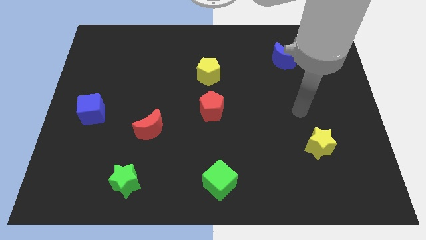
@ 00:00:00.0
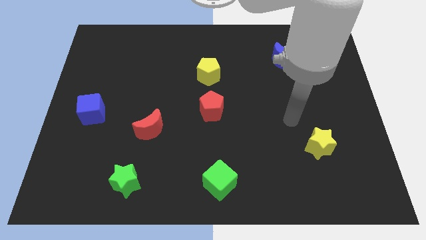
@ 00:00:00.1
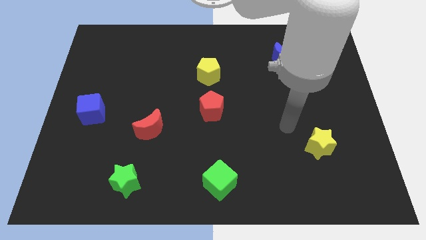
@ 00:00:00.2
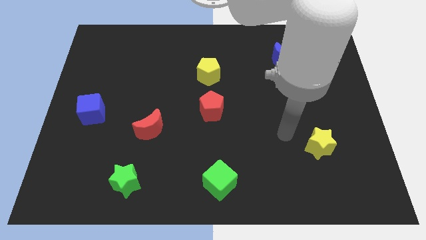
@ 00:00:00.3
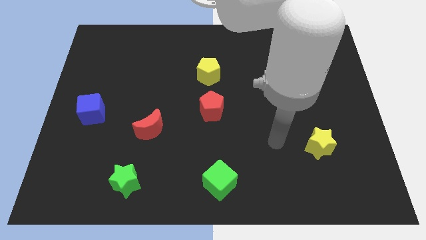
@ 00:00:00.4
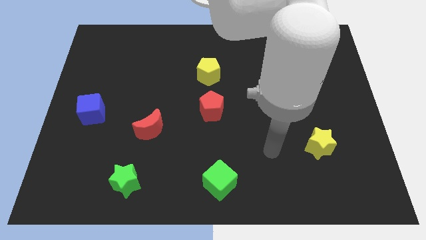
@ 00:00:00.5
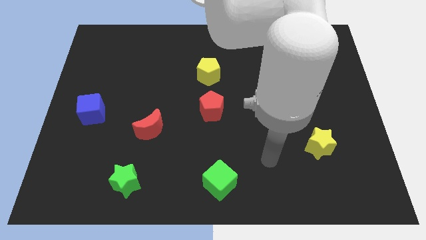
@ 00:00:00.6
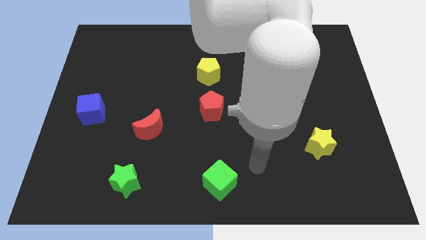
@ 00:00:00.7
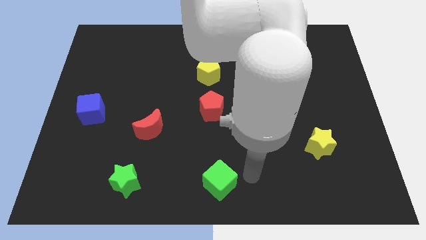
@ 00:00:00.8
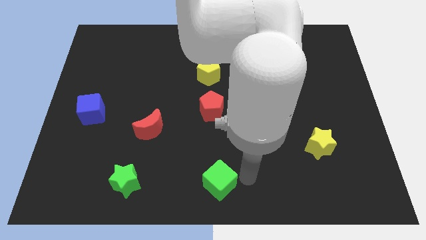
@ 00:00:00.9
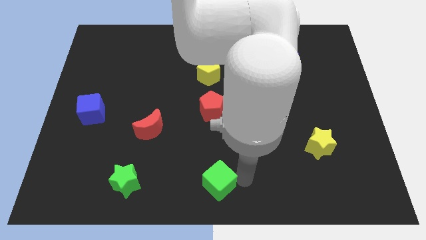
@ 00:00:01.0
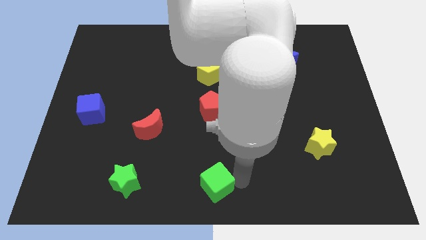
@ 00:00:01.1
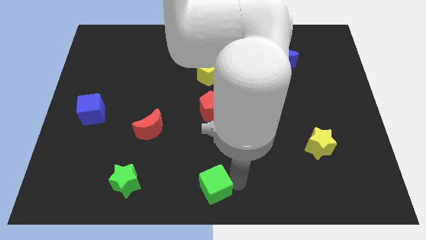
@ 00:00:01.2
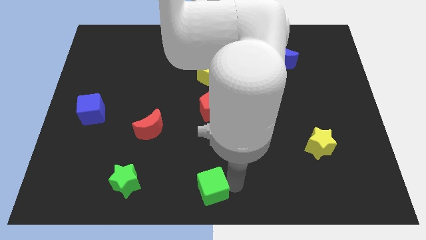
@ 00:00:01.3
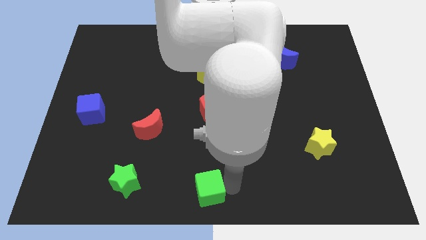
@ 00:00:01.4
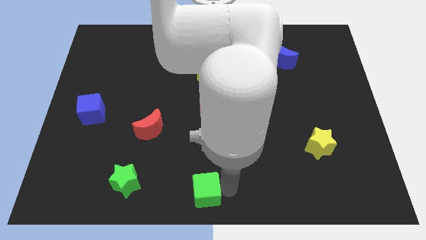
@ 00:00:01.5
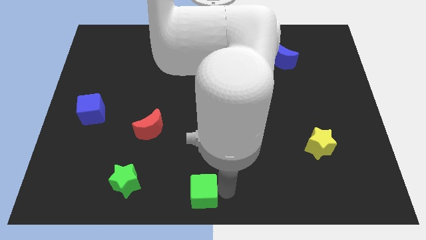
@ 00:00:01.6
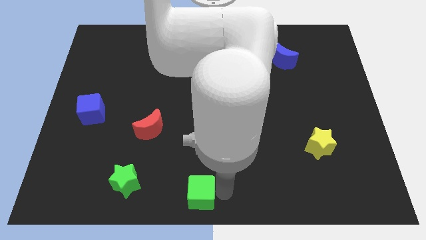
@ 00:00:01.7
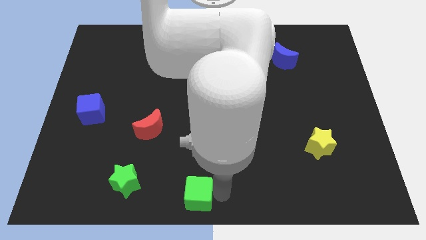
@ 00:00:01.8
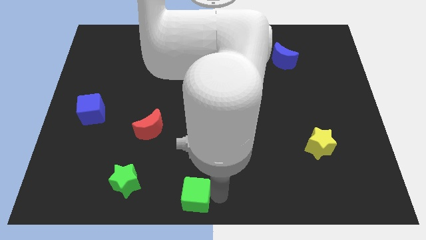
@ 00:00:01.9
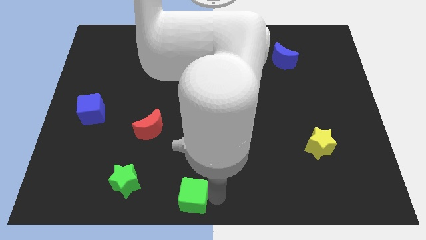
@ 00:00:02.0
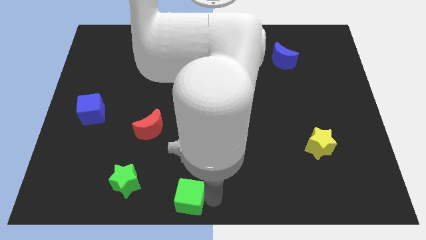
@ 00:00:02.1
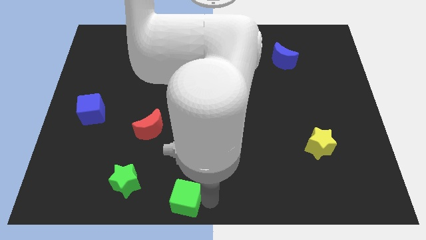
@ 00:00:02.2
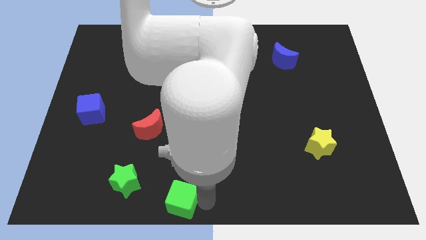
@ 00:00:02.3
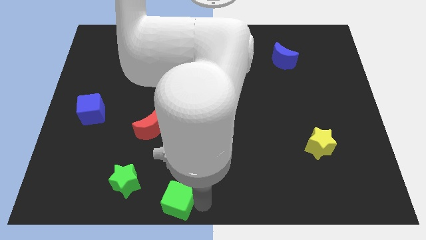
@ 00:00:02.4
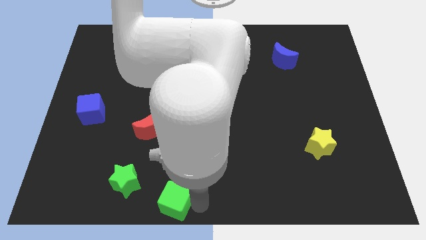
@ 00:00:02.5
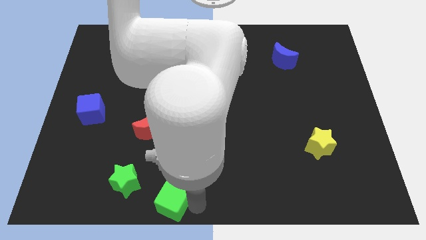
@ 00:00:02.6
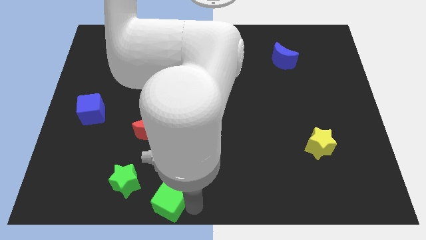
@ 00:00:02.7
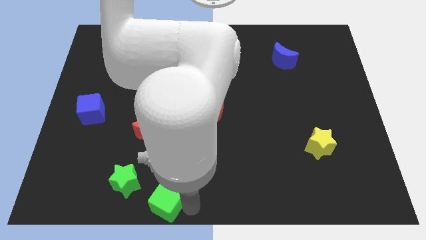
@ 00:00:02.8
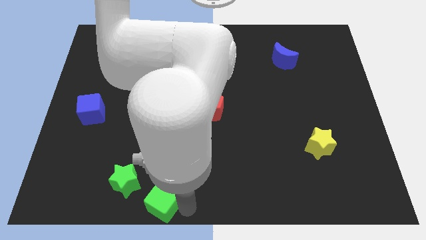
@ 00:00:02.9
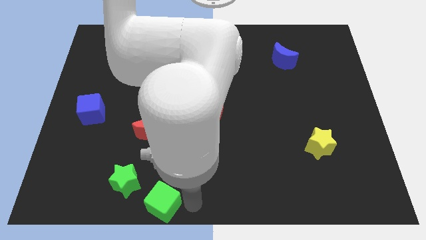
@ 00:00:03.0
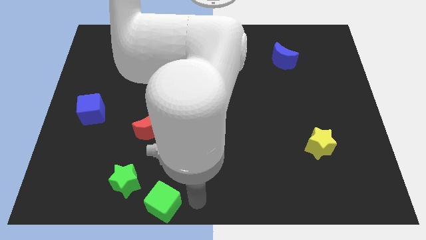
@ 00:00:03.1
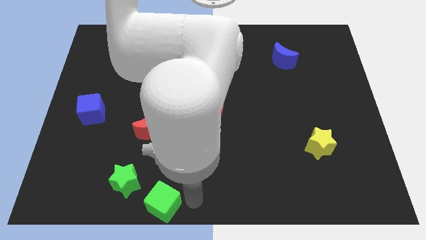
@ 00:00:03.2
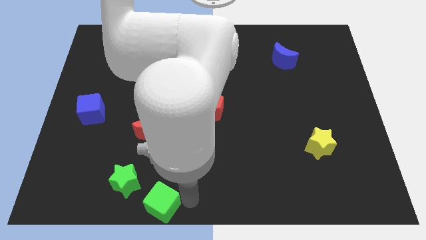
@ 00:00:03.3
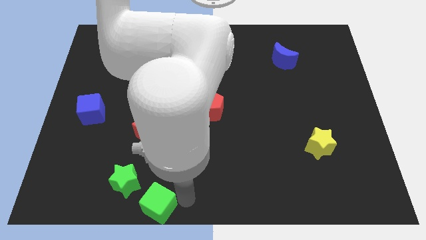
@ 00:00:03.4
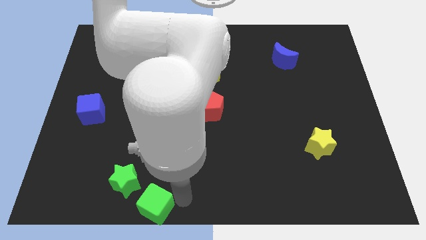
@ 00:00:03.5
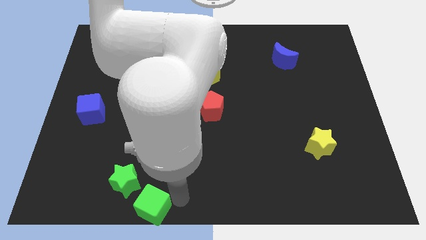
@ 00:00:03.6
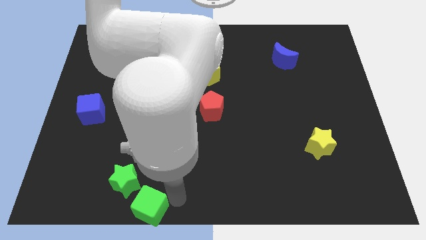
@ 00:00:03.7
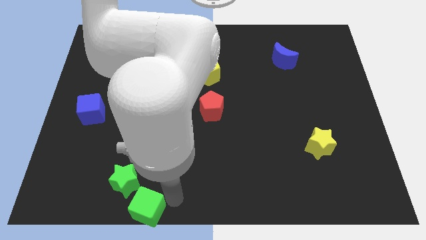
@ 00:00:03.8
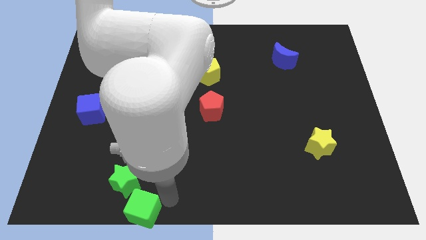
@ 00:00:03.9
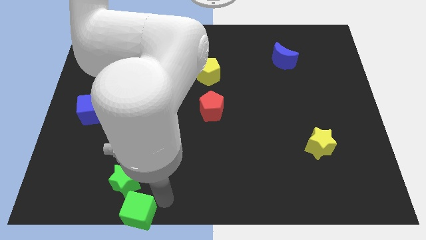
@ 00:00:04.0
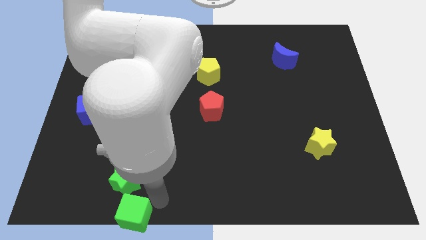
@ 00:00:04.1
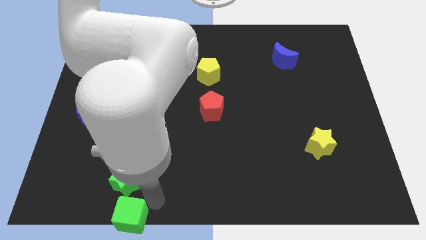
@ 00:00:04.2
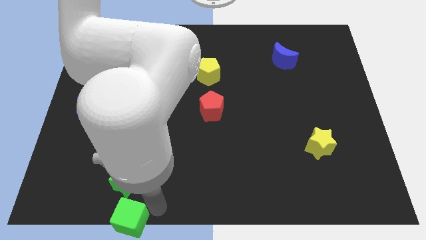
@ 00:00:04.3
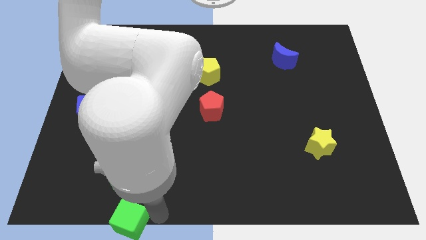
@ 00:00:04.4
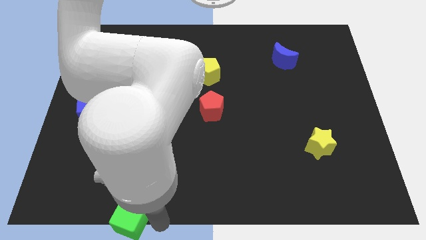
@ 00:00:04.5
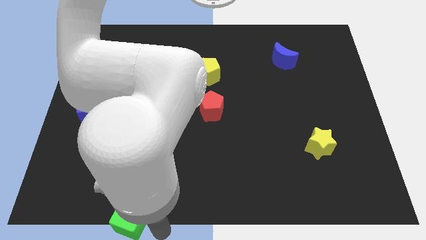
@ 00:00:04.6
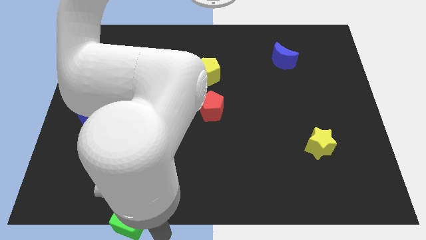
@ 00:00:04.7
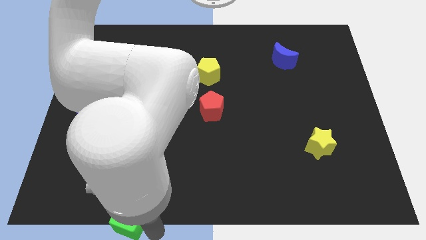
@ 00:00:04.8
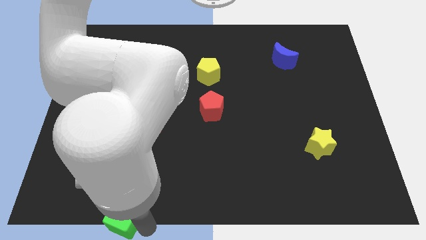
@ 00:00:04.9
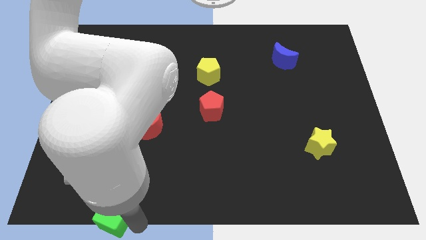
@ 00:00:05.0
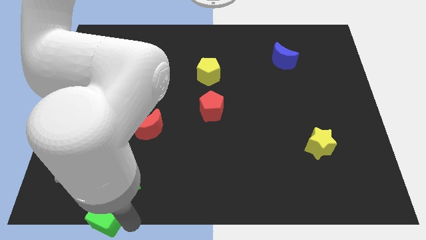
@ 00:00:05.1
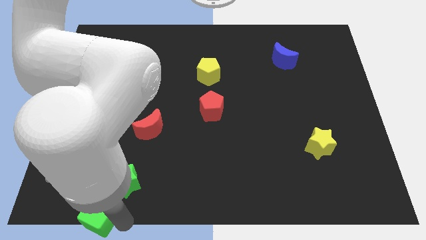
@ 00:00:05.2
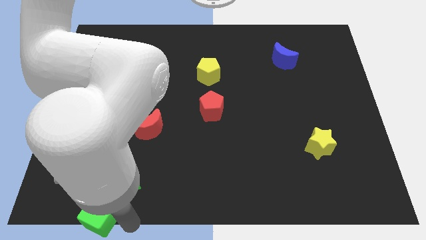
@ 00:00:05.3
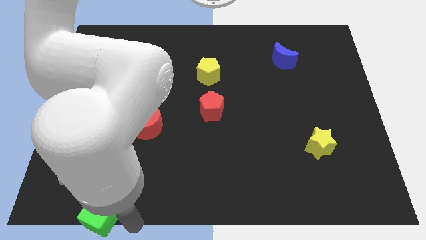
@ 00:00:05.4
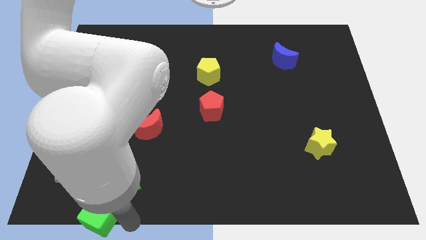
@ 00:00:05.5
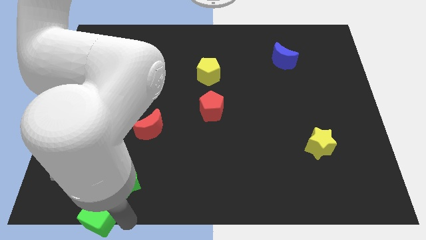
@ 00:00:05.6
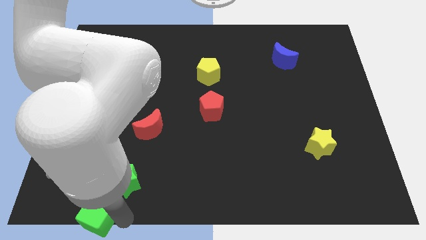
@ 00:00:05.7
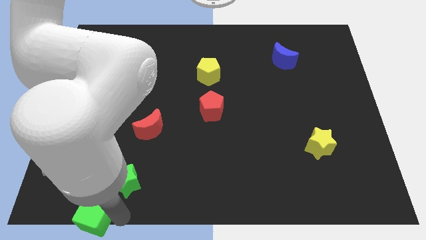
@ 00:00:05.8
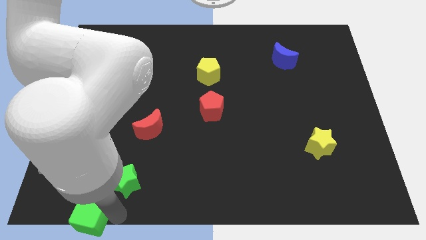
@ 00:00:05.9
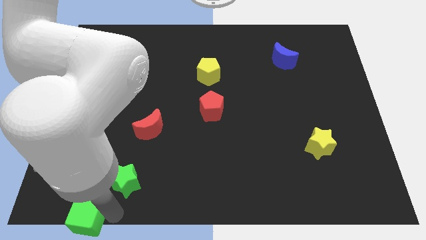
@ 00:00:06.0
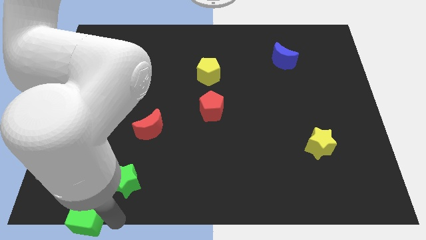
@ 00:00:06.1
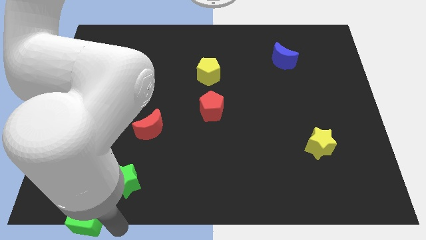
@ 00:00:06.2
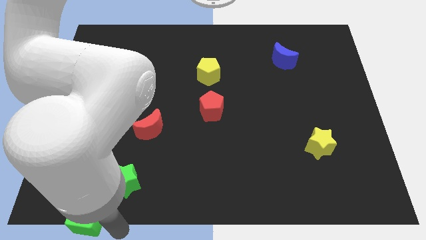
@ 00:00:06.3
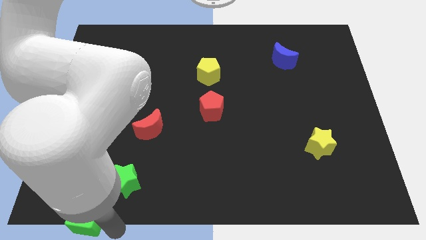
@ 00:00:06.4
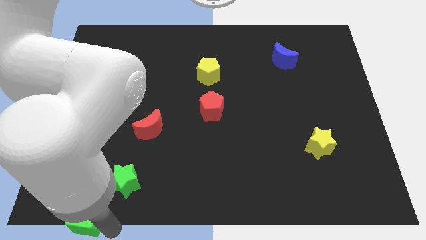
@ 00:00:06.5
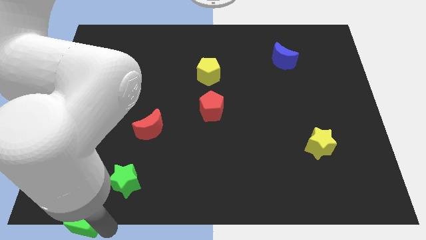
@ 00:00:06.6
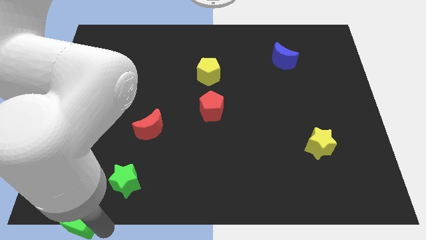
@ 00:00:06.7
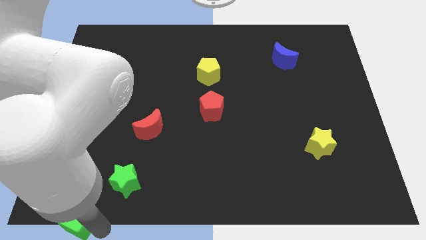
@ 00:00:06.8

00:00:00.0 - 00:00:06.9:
put the green cube to the bottom left corner
